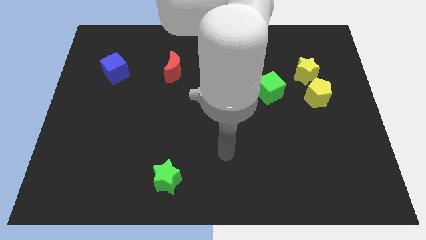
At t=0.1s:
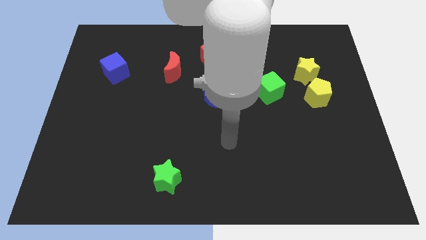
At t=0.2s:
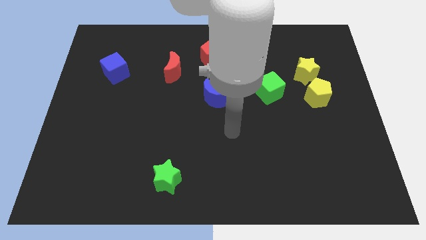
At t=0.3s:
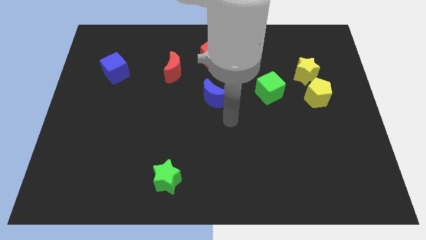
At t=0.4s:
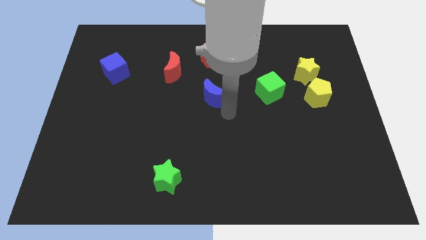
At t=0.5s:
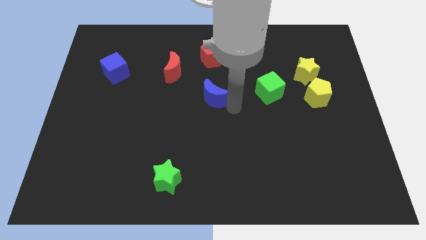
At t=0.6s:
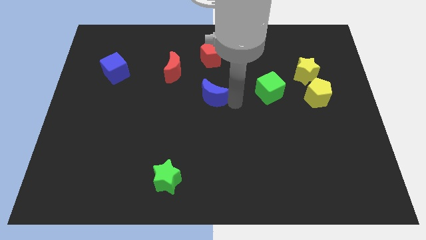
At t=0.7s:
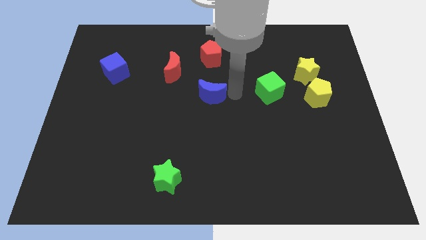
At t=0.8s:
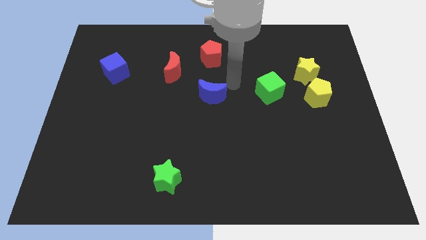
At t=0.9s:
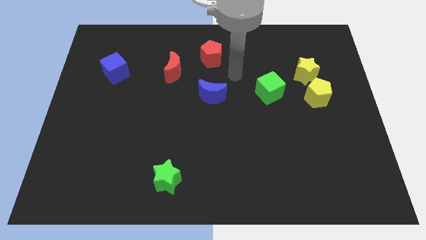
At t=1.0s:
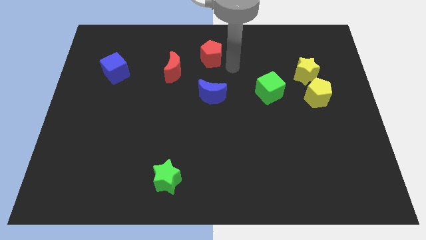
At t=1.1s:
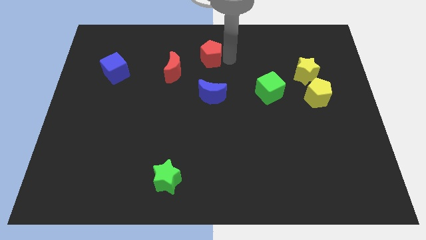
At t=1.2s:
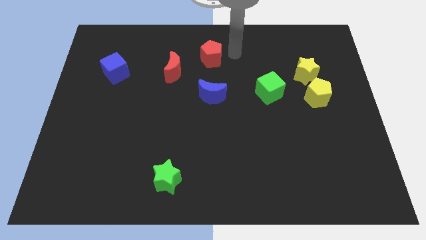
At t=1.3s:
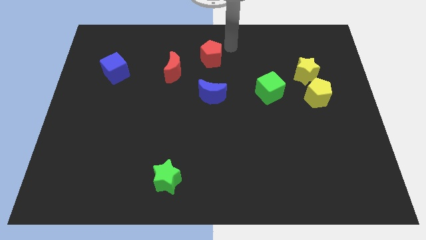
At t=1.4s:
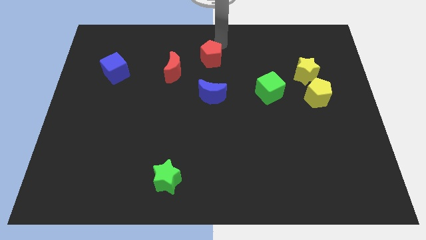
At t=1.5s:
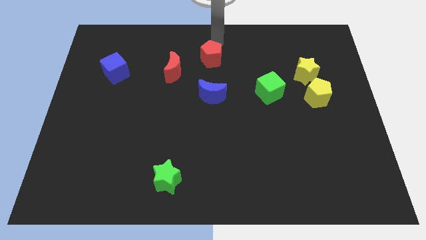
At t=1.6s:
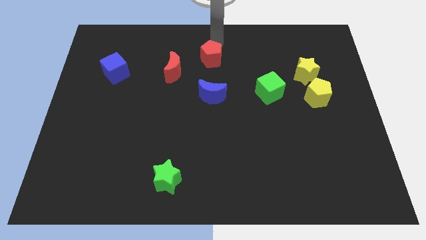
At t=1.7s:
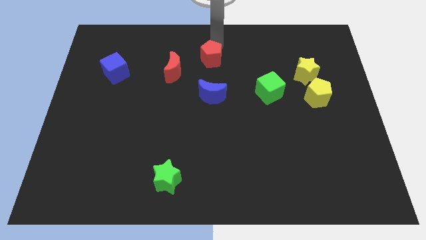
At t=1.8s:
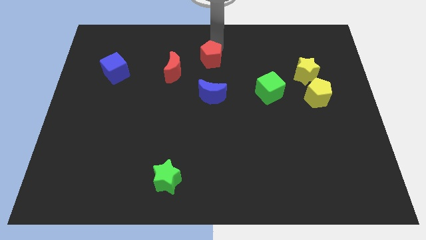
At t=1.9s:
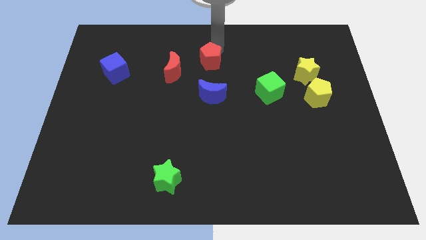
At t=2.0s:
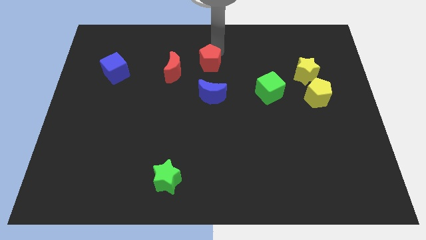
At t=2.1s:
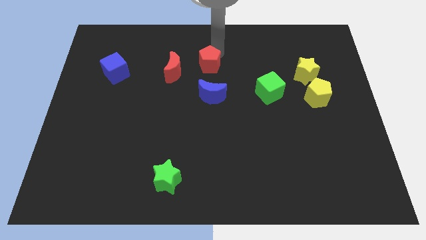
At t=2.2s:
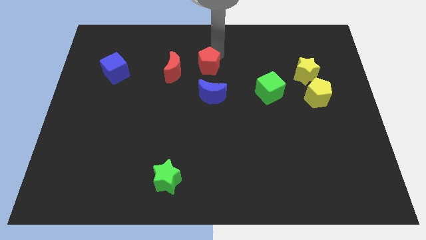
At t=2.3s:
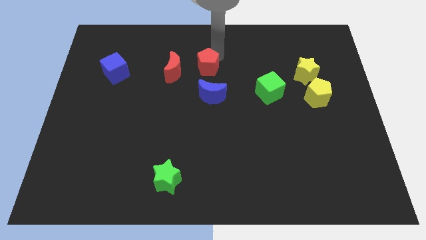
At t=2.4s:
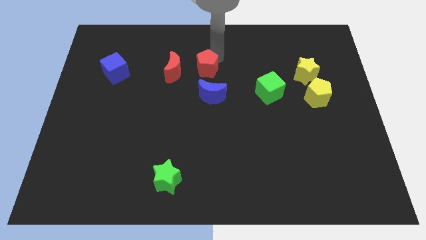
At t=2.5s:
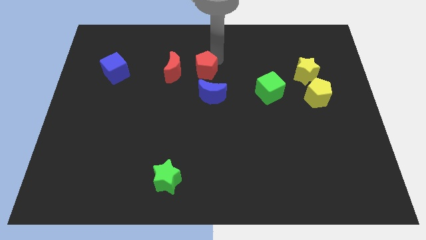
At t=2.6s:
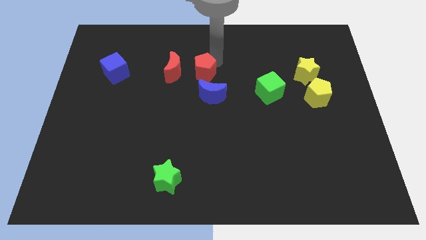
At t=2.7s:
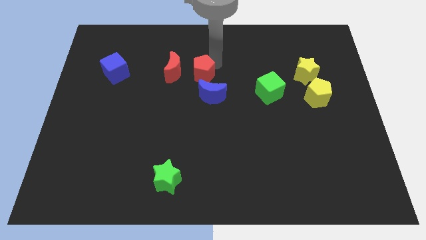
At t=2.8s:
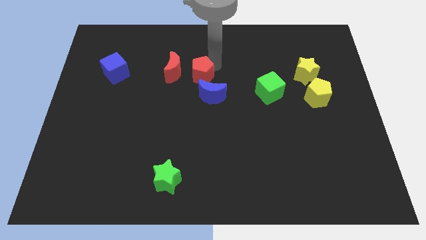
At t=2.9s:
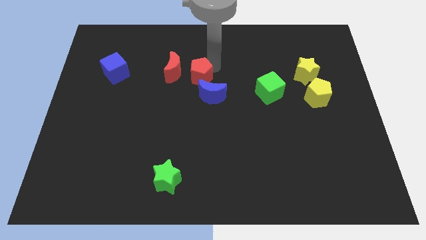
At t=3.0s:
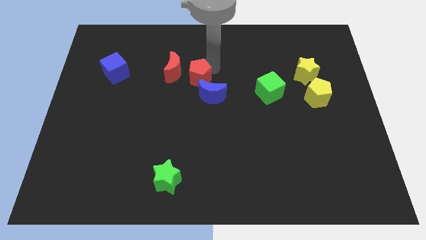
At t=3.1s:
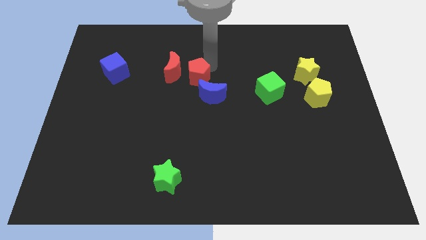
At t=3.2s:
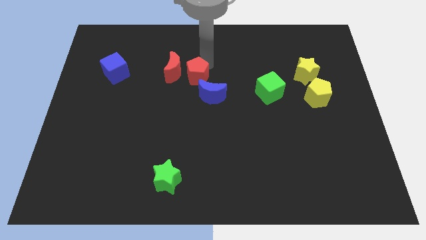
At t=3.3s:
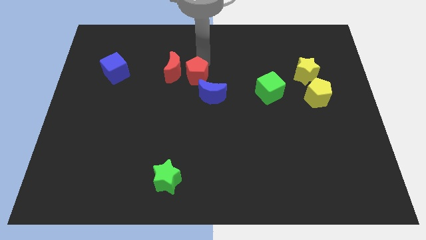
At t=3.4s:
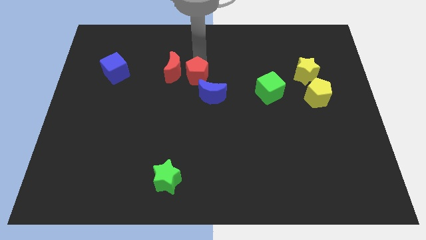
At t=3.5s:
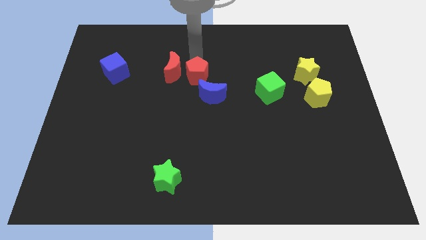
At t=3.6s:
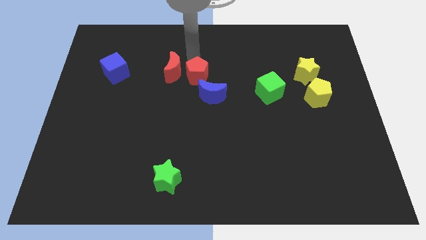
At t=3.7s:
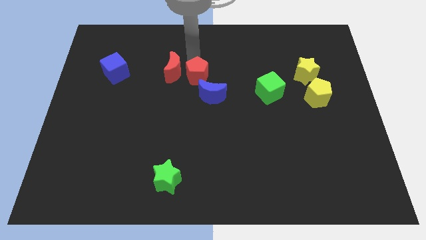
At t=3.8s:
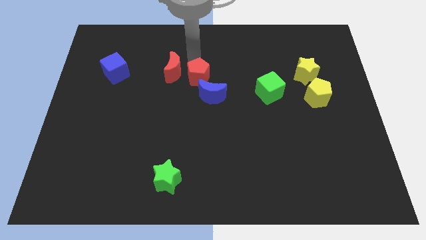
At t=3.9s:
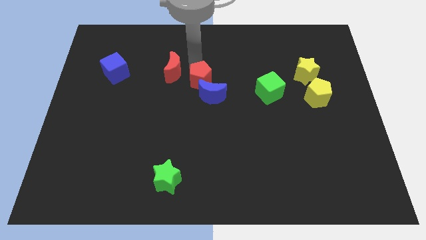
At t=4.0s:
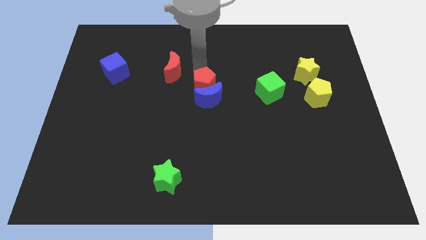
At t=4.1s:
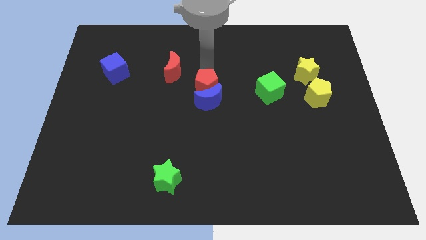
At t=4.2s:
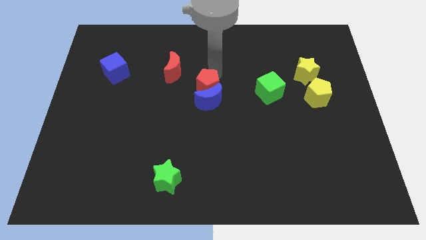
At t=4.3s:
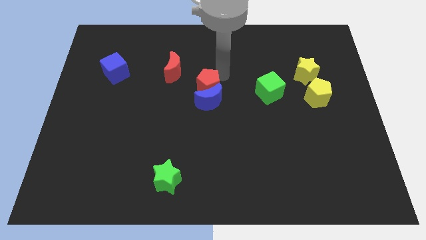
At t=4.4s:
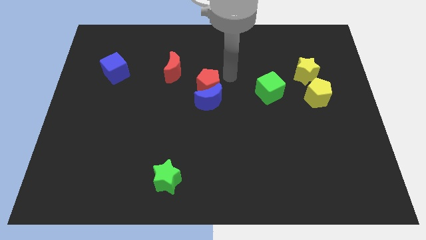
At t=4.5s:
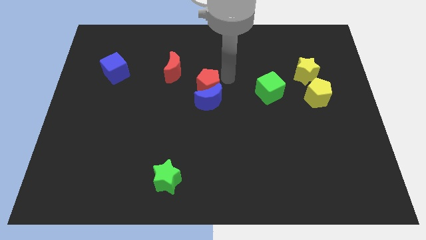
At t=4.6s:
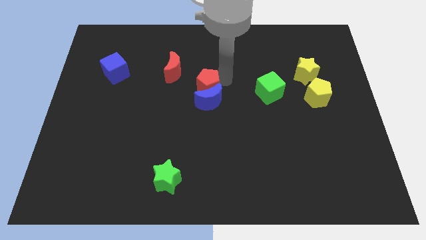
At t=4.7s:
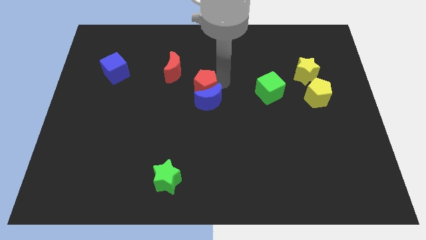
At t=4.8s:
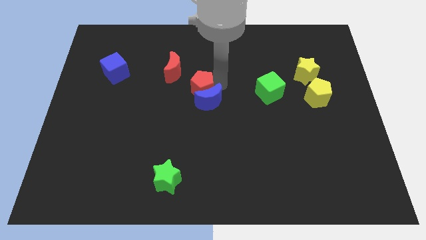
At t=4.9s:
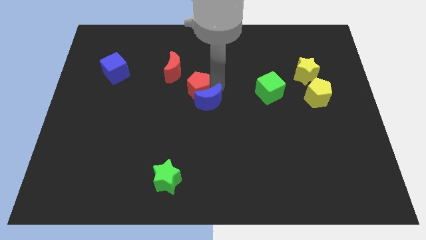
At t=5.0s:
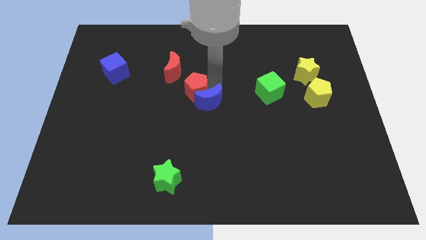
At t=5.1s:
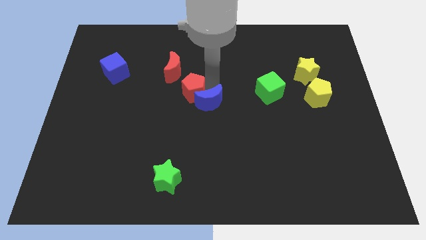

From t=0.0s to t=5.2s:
slide the red pentagon to the bottom side of the red moon

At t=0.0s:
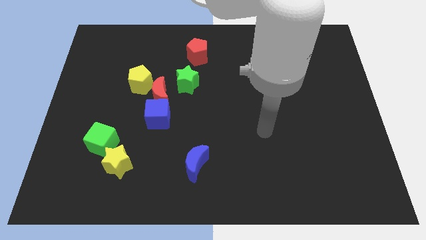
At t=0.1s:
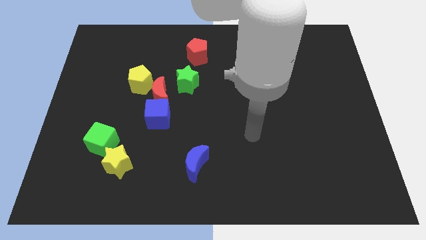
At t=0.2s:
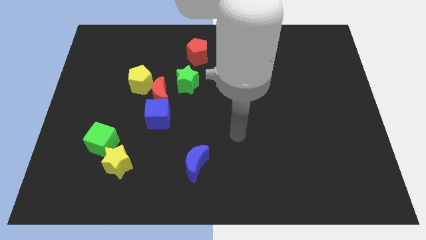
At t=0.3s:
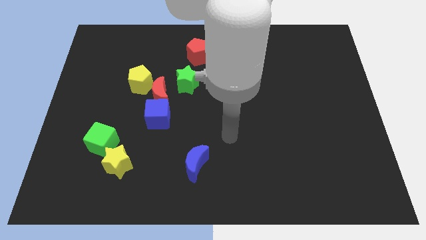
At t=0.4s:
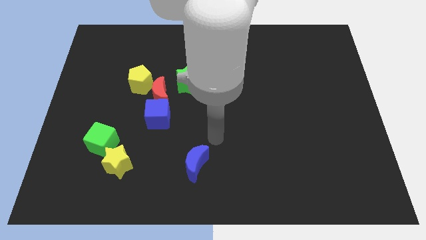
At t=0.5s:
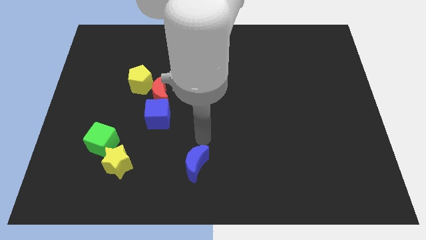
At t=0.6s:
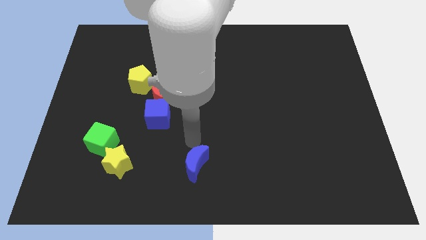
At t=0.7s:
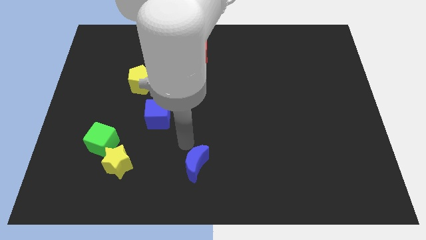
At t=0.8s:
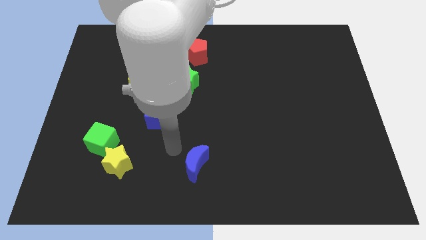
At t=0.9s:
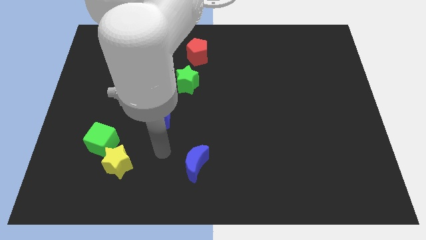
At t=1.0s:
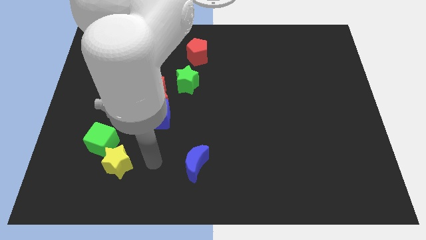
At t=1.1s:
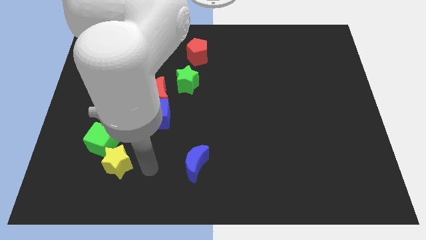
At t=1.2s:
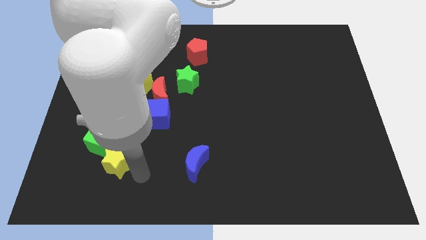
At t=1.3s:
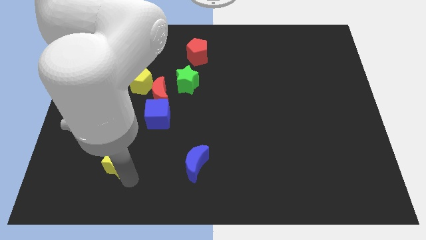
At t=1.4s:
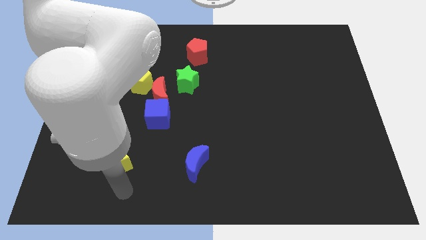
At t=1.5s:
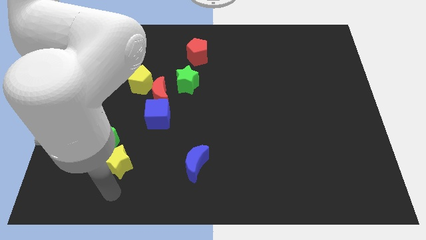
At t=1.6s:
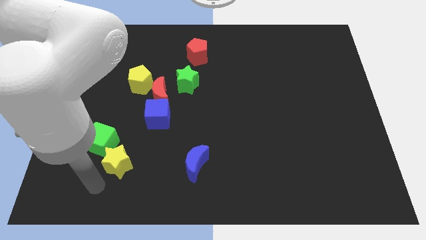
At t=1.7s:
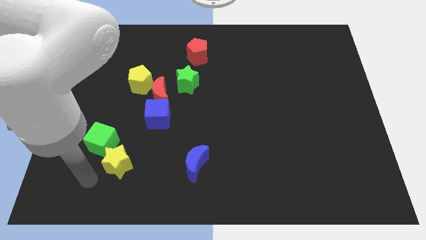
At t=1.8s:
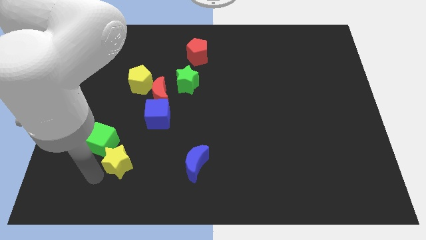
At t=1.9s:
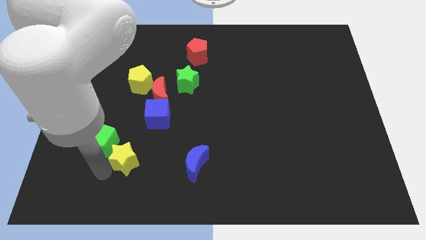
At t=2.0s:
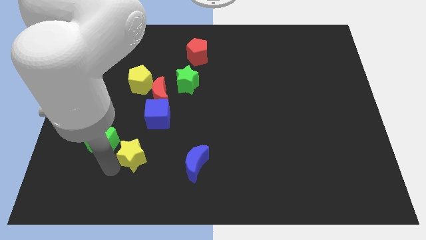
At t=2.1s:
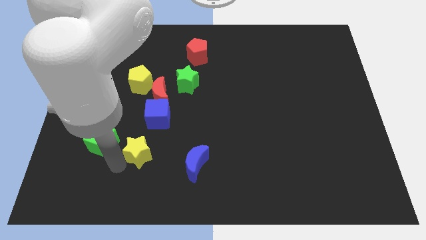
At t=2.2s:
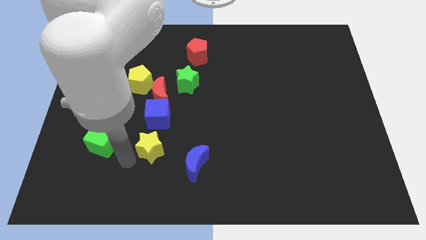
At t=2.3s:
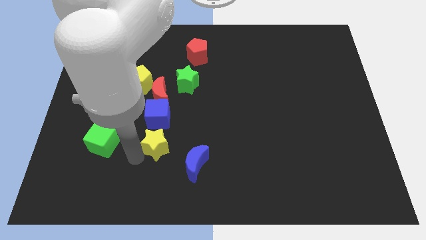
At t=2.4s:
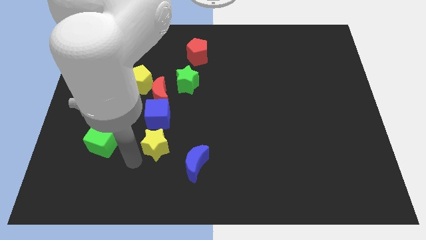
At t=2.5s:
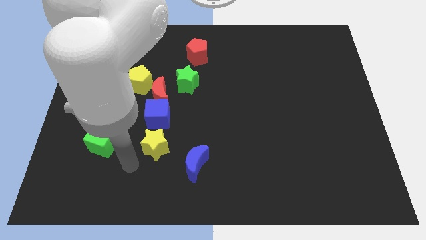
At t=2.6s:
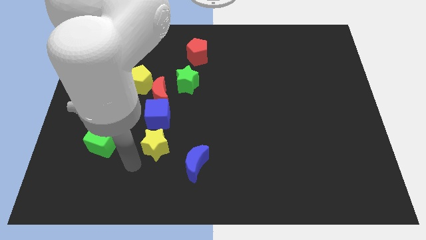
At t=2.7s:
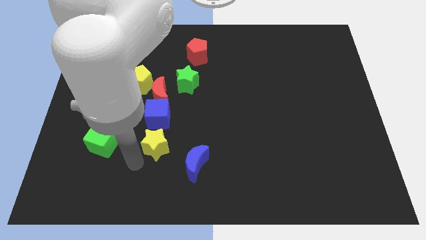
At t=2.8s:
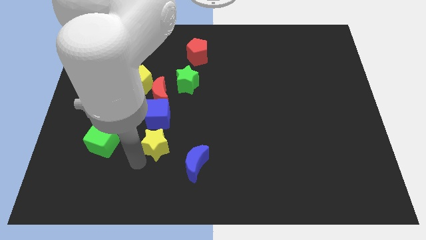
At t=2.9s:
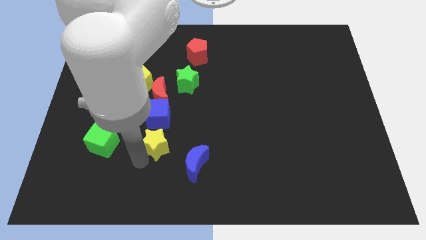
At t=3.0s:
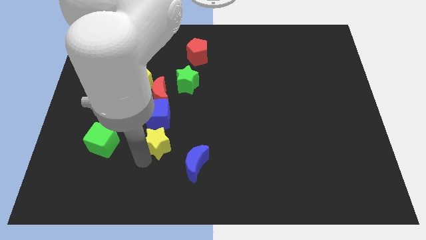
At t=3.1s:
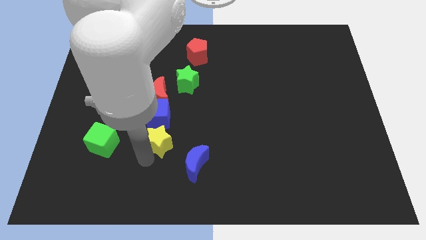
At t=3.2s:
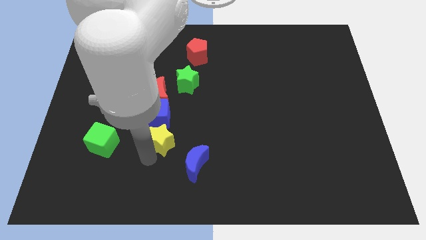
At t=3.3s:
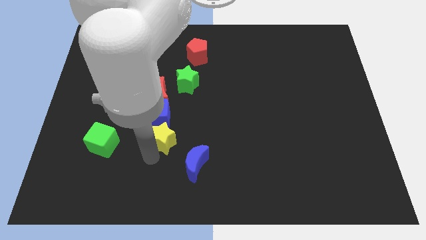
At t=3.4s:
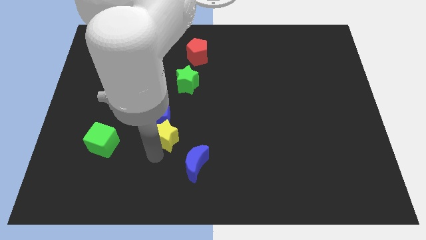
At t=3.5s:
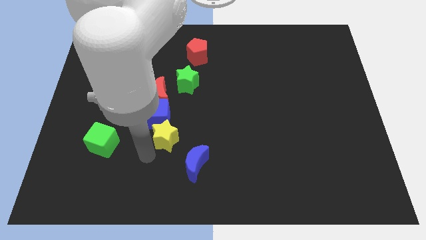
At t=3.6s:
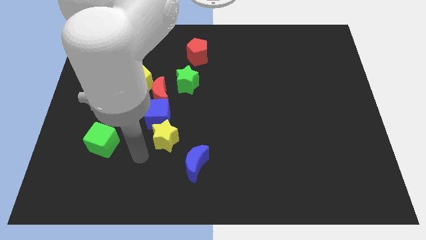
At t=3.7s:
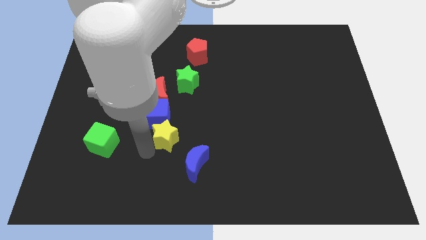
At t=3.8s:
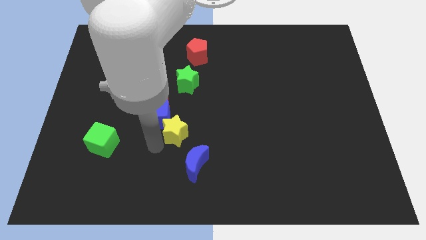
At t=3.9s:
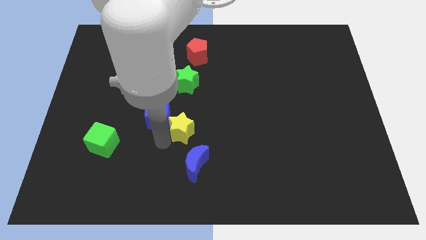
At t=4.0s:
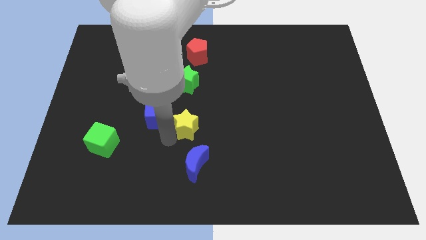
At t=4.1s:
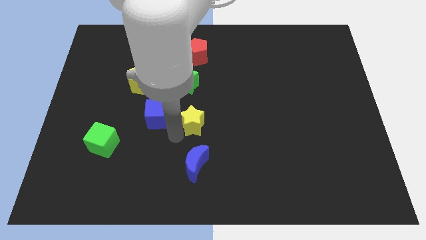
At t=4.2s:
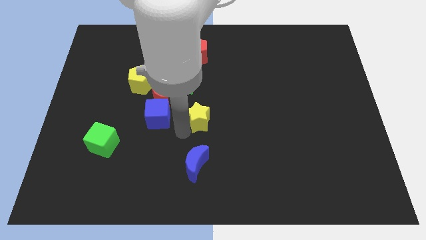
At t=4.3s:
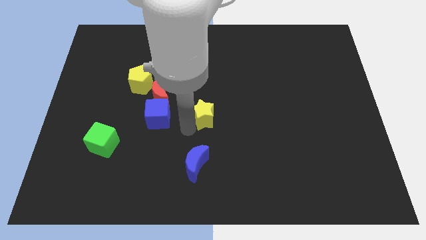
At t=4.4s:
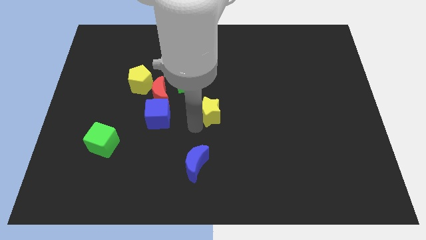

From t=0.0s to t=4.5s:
push the yellow star to the bottom right of the green star
